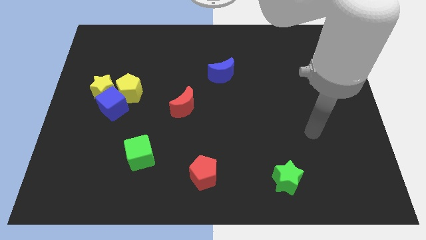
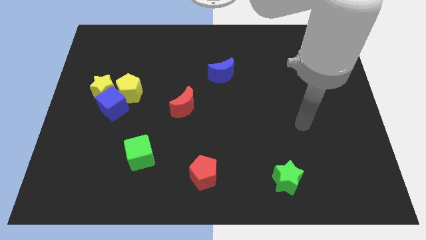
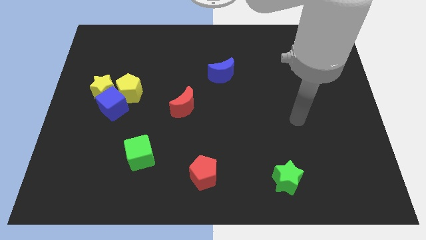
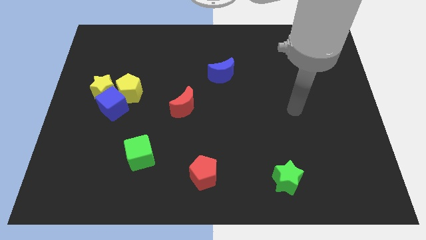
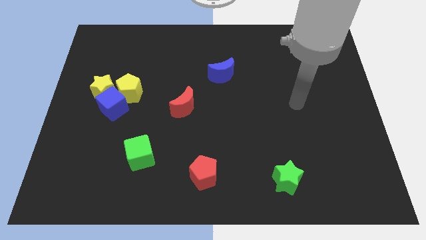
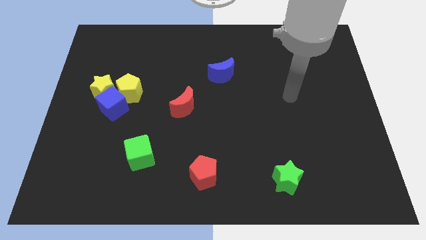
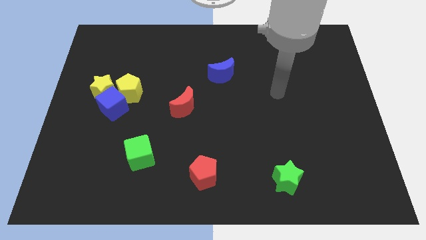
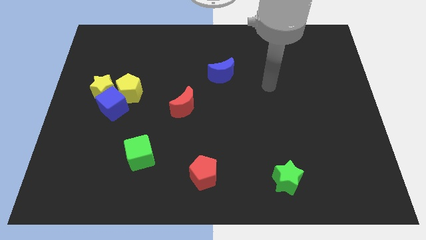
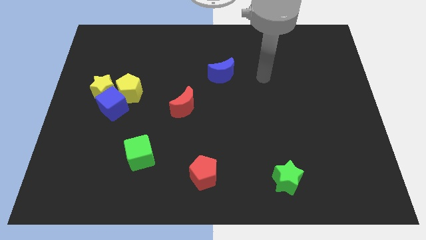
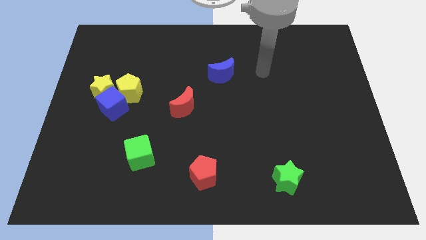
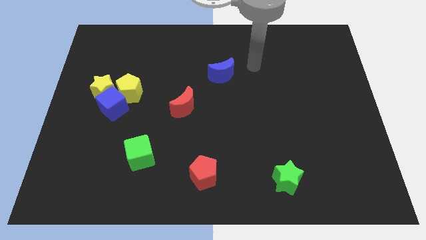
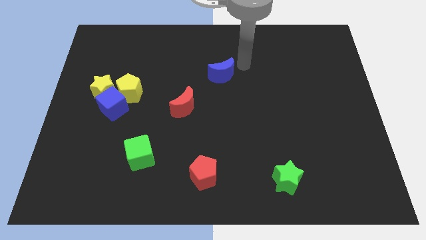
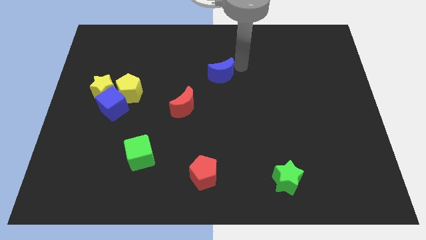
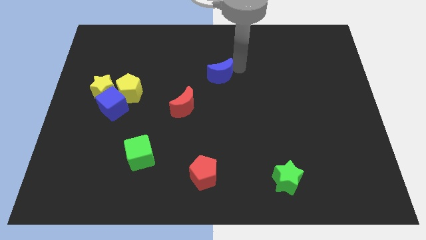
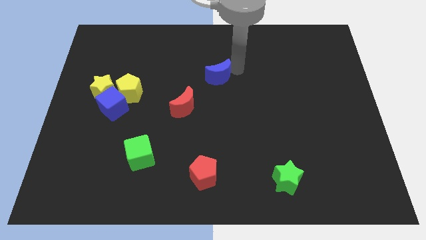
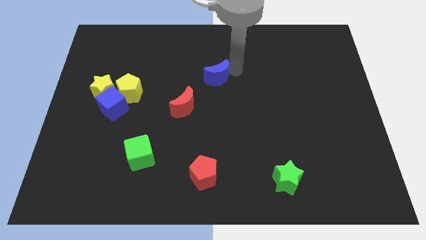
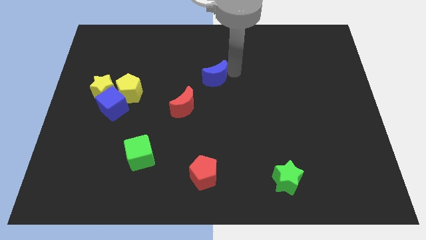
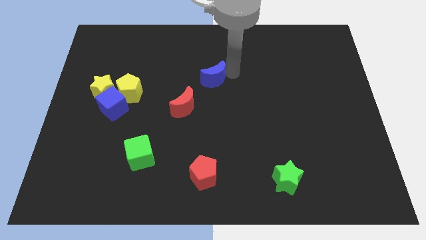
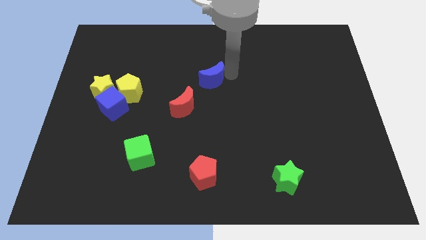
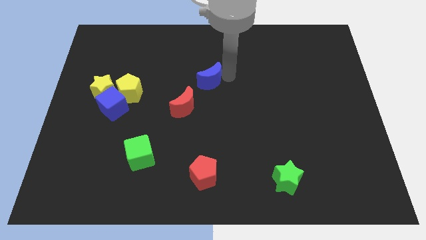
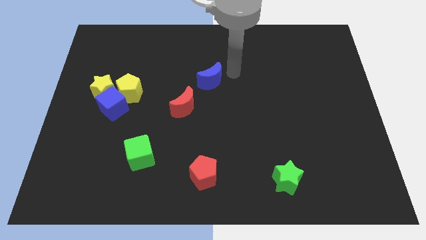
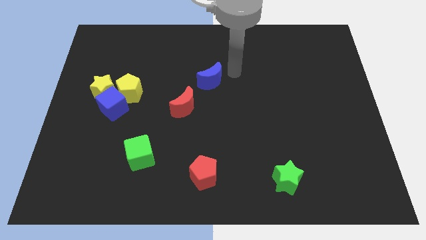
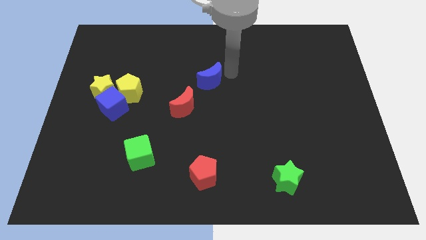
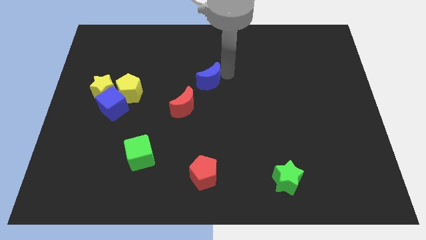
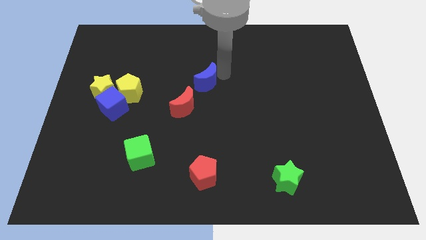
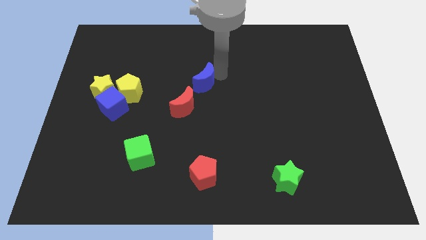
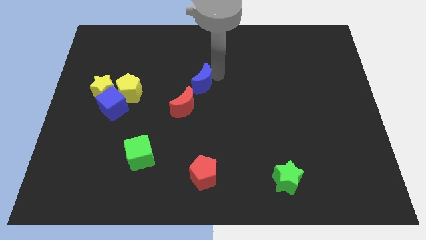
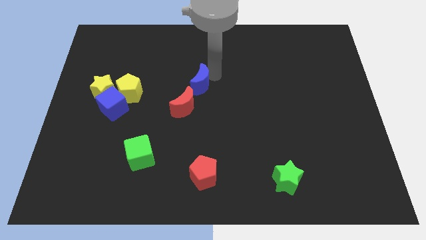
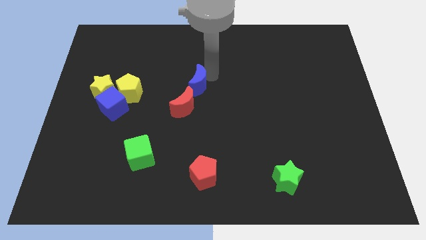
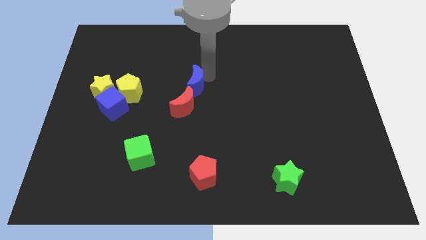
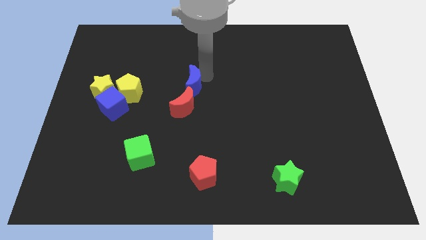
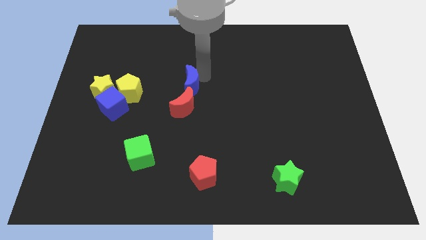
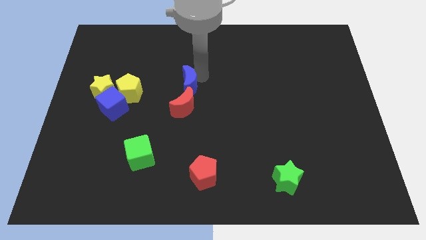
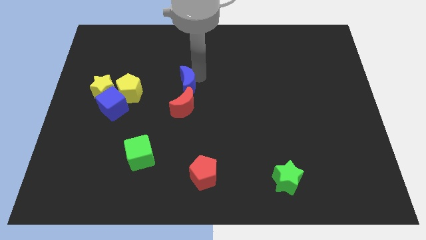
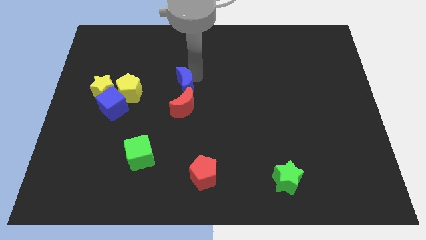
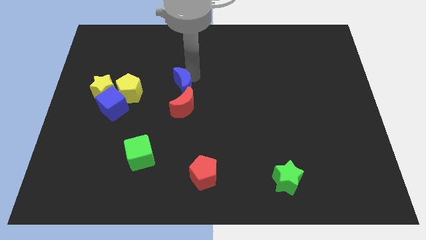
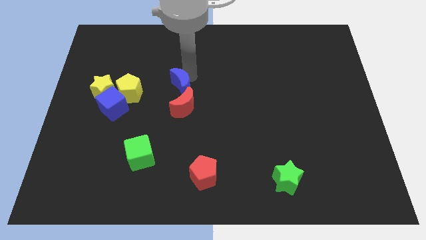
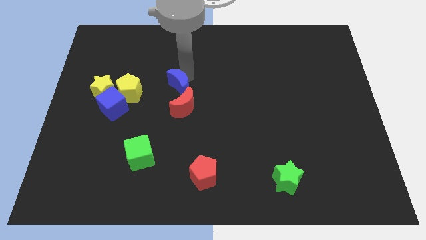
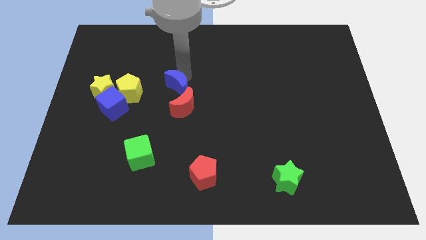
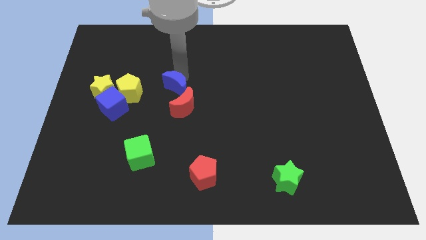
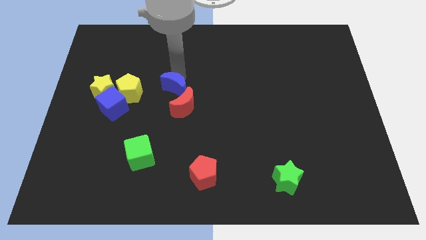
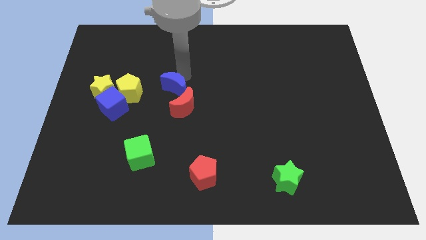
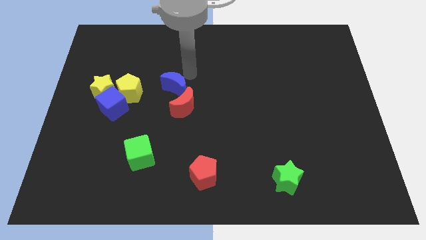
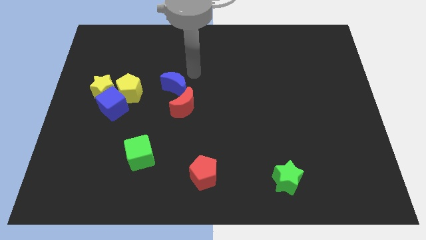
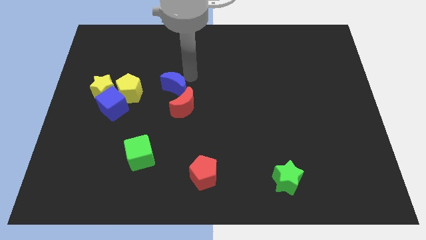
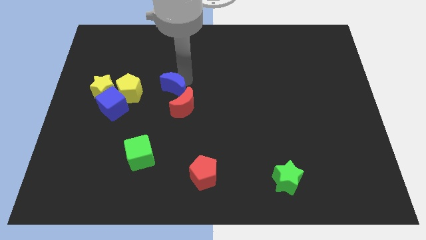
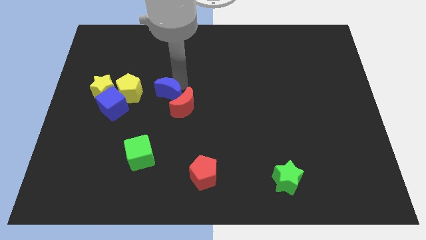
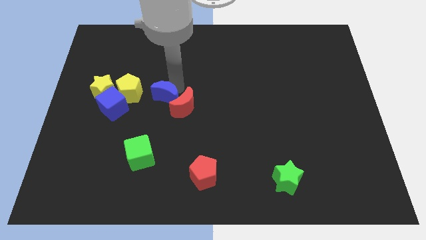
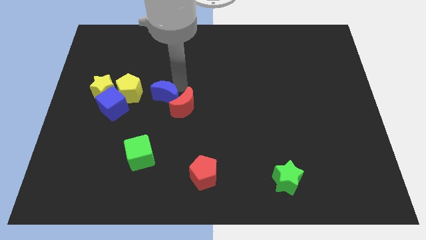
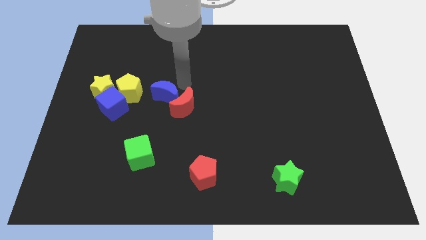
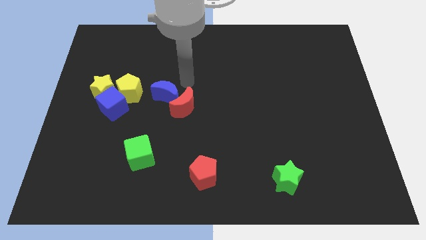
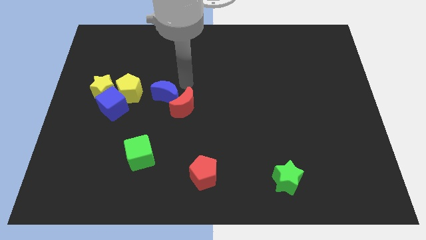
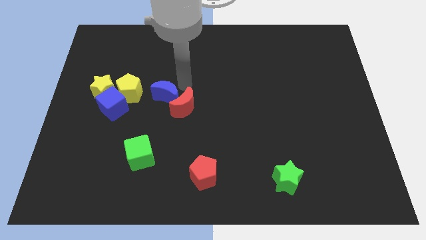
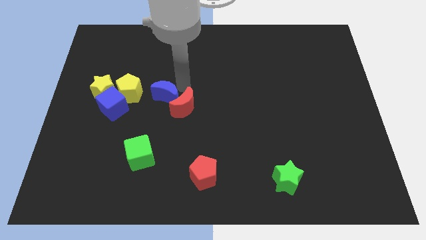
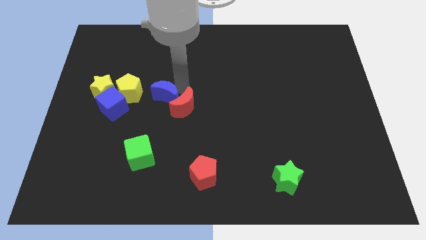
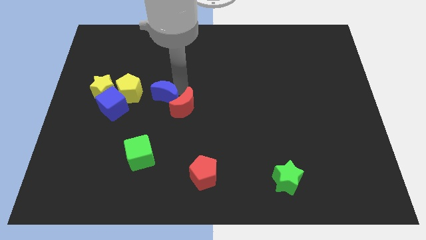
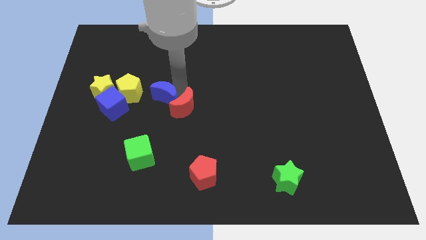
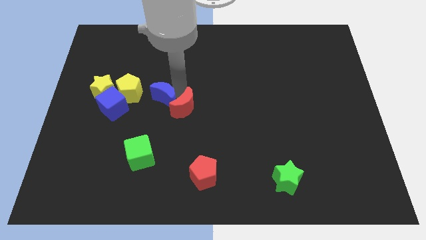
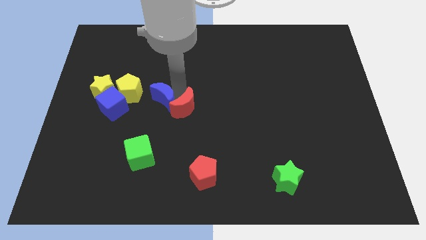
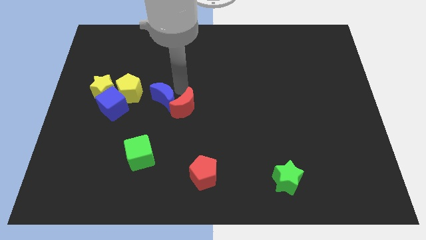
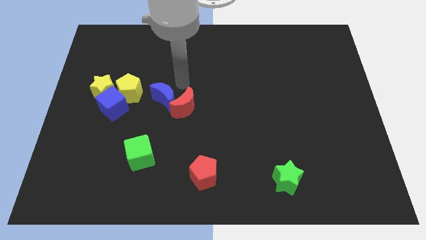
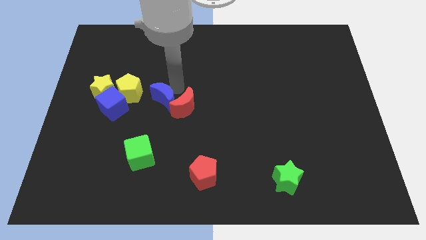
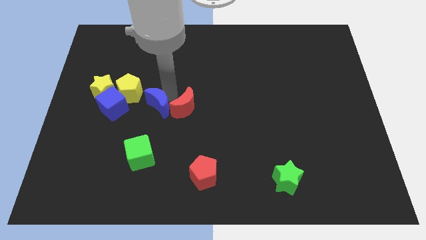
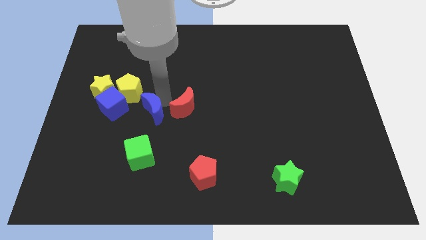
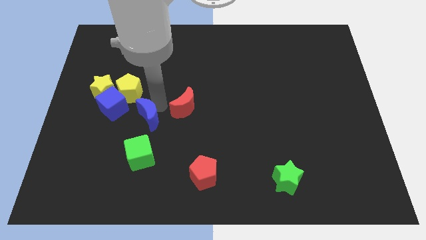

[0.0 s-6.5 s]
slide the blue moon down and then left

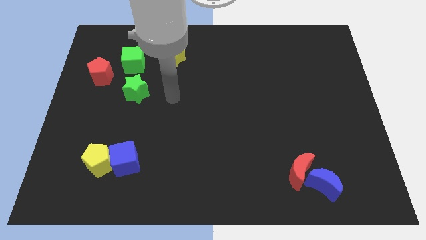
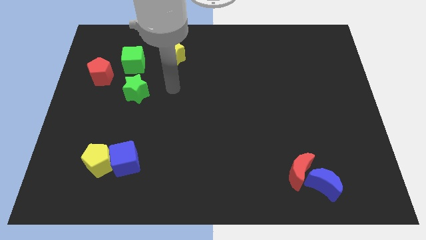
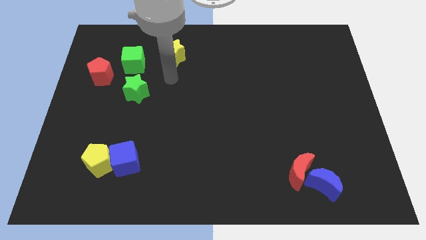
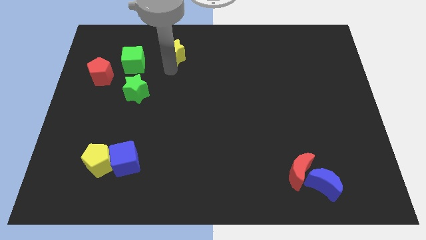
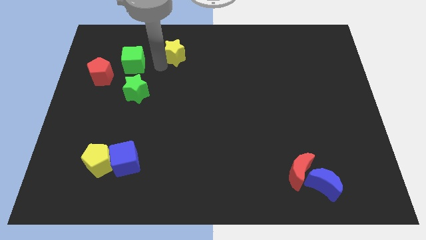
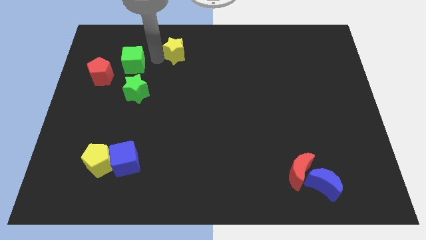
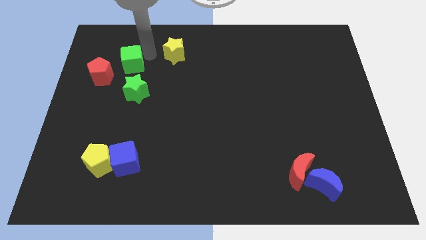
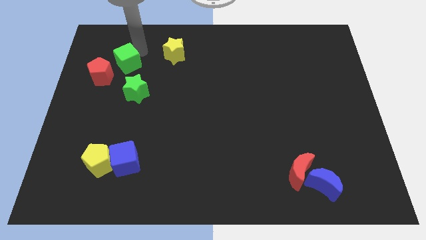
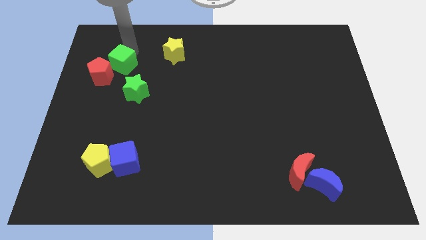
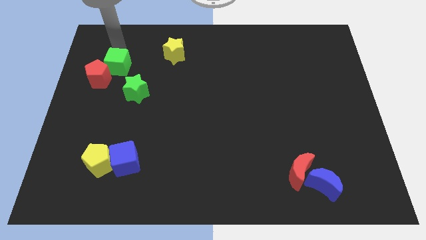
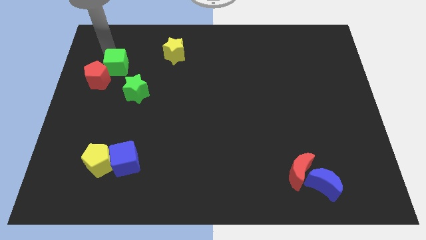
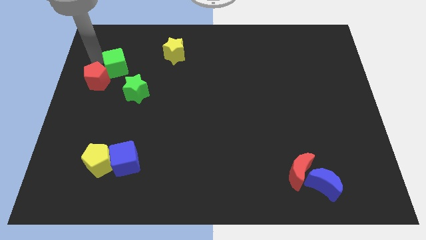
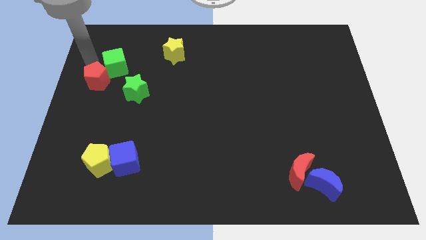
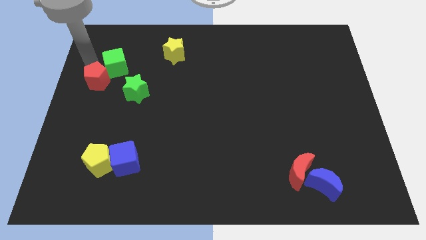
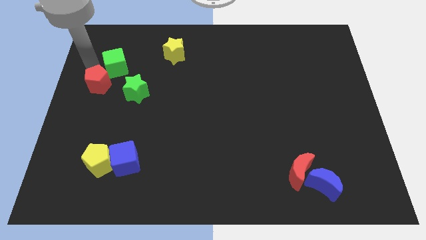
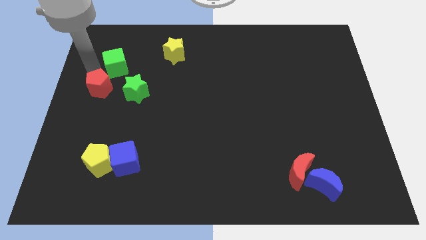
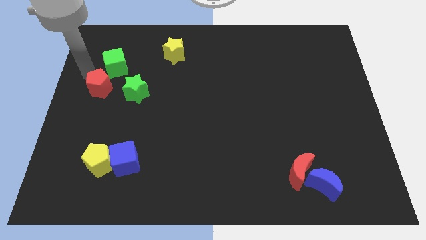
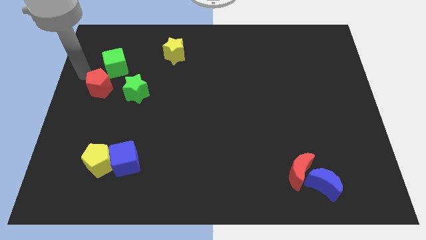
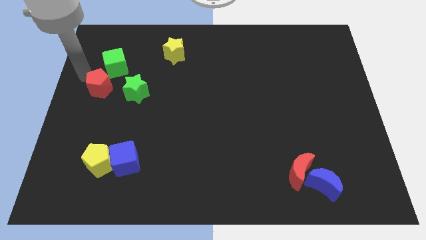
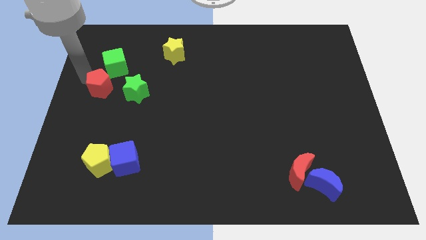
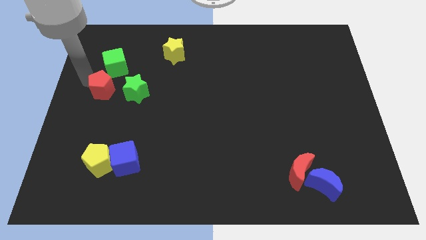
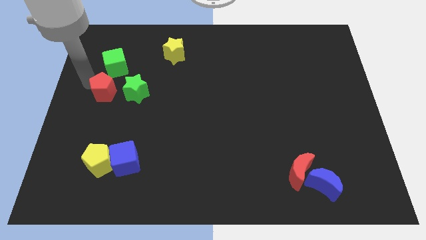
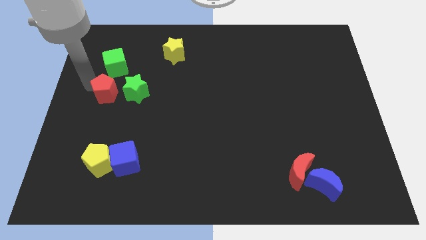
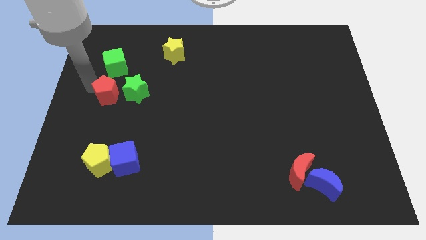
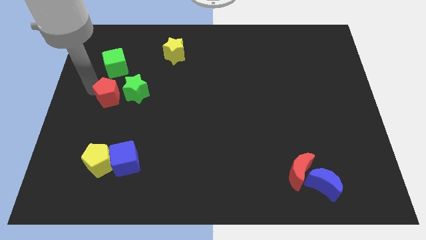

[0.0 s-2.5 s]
slightly slide the red pentagon down and right diagonally
